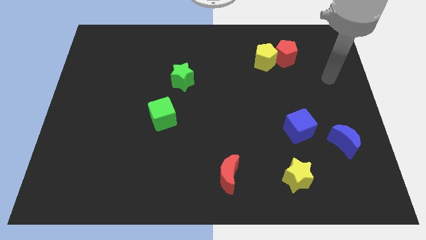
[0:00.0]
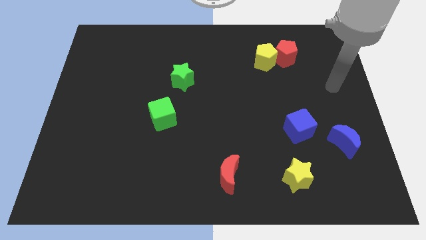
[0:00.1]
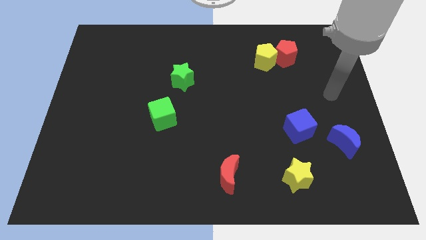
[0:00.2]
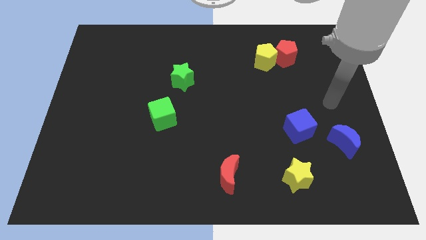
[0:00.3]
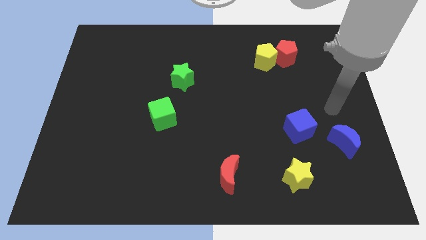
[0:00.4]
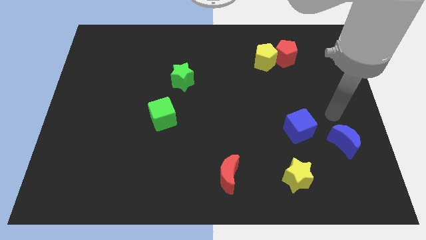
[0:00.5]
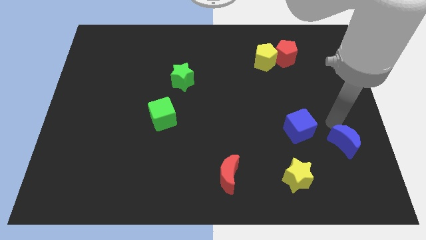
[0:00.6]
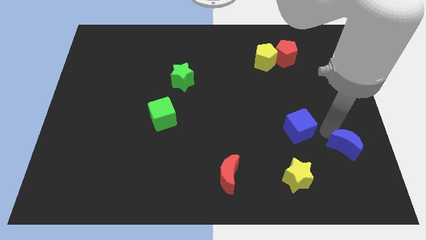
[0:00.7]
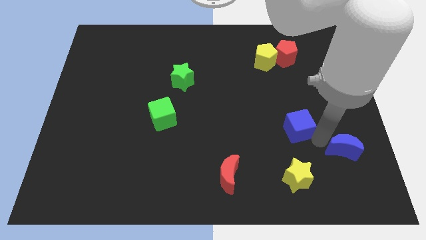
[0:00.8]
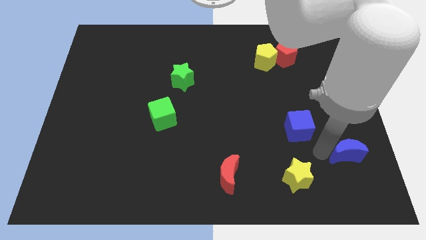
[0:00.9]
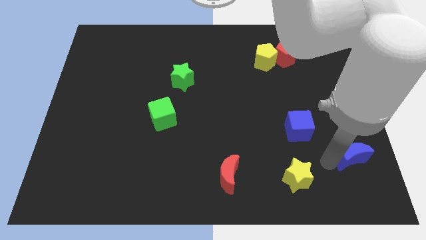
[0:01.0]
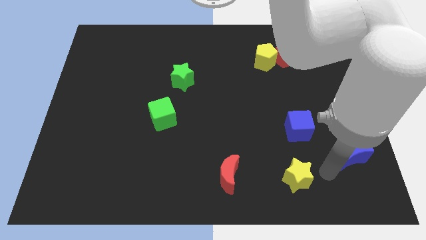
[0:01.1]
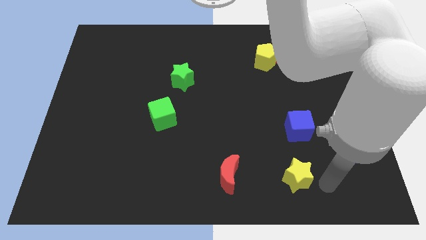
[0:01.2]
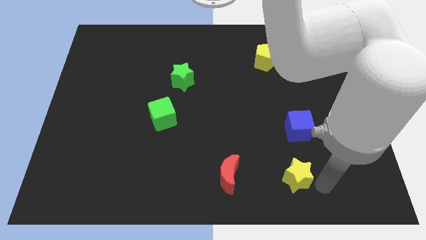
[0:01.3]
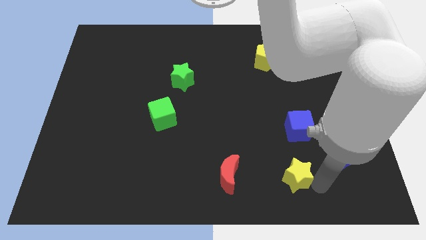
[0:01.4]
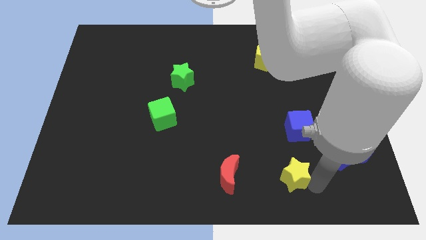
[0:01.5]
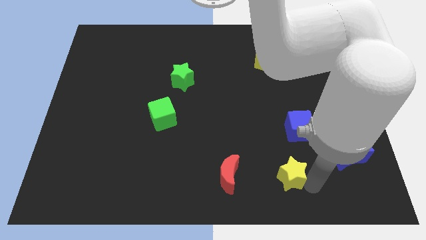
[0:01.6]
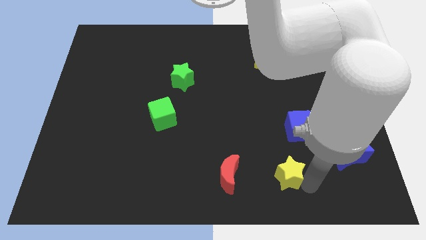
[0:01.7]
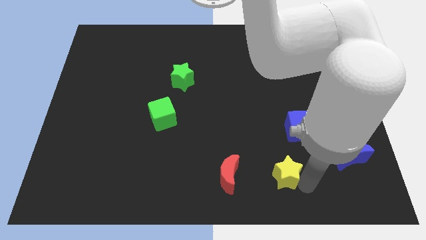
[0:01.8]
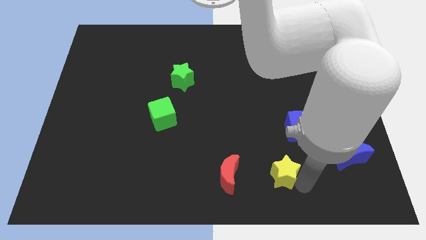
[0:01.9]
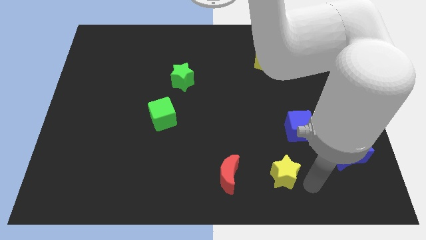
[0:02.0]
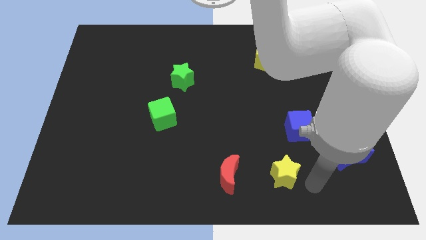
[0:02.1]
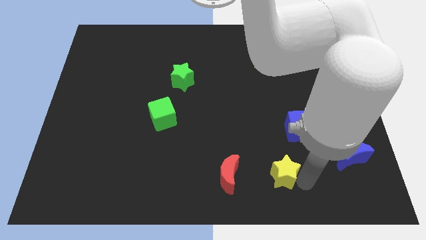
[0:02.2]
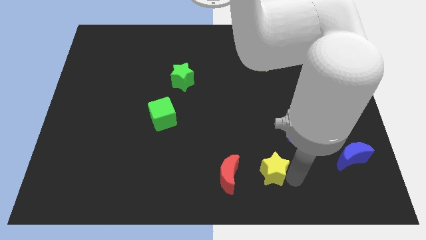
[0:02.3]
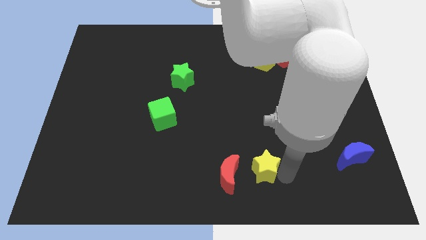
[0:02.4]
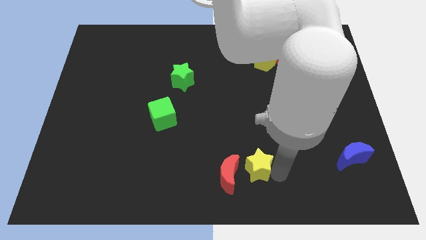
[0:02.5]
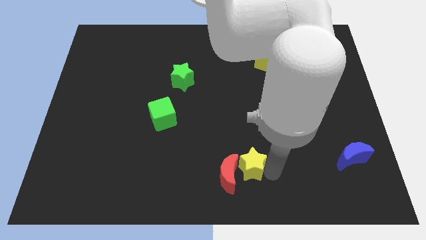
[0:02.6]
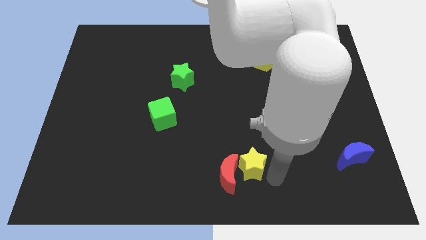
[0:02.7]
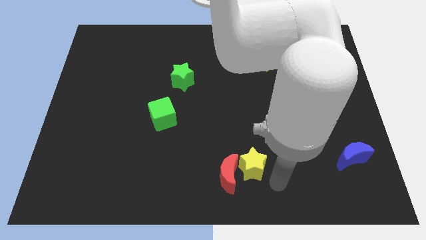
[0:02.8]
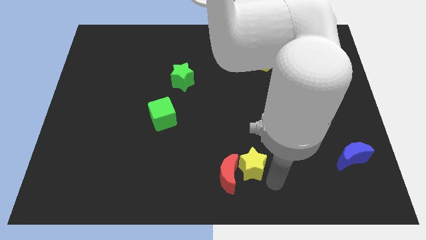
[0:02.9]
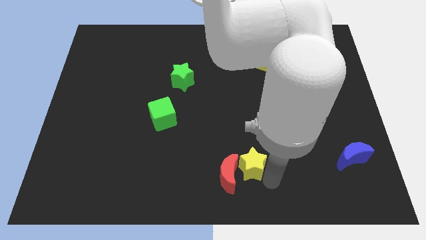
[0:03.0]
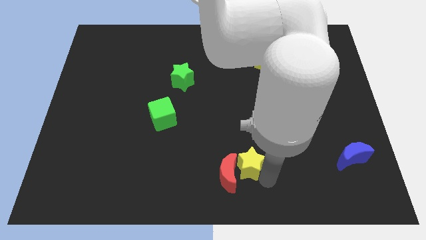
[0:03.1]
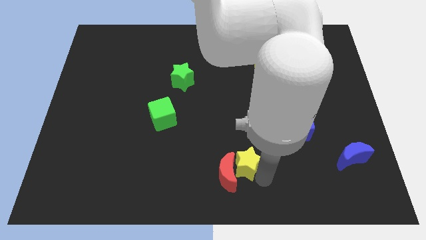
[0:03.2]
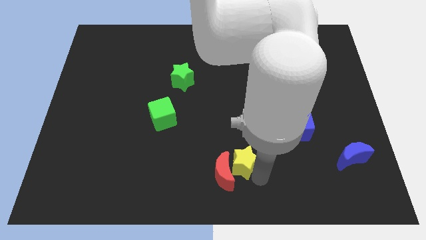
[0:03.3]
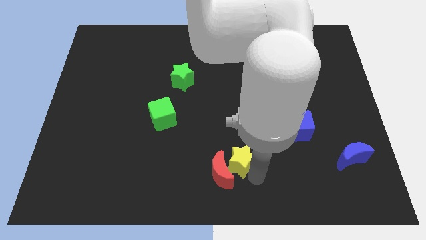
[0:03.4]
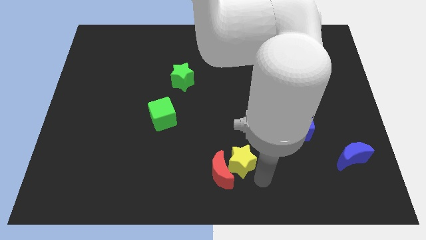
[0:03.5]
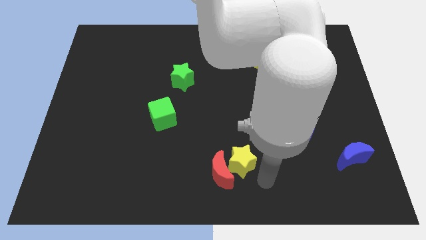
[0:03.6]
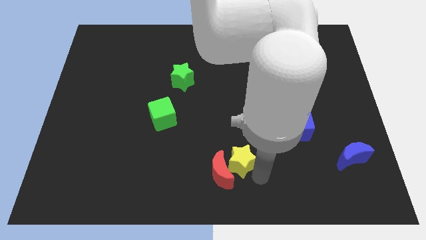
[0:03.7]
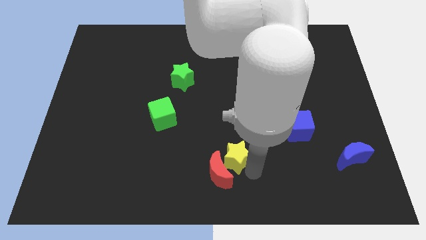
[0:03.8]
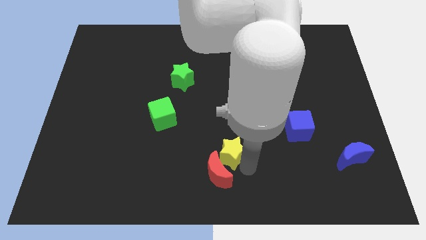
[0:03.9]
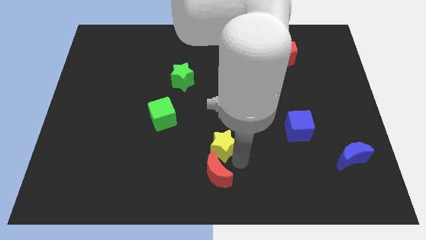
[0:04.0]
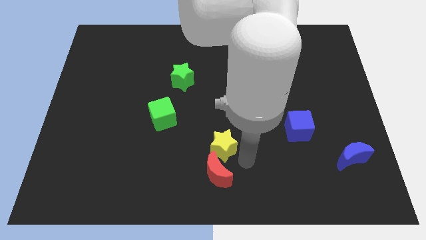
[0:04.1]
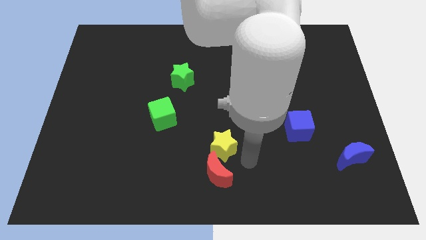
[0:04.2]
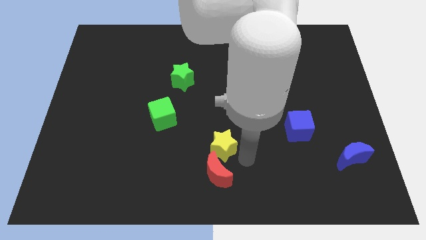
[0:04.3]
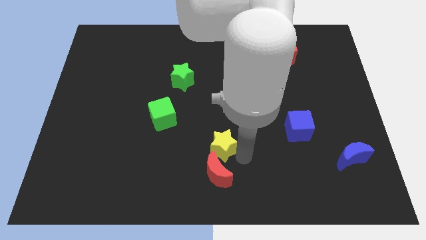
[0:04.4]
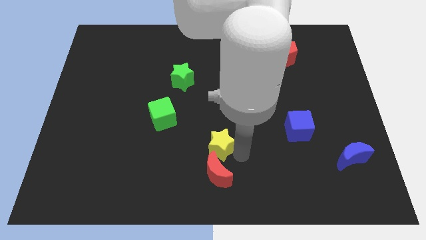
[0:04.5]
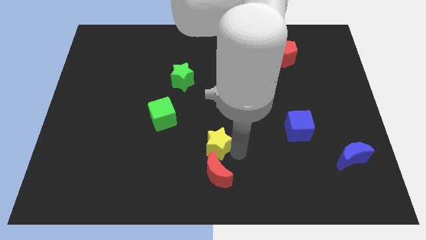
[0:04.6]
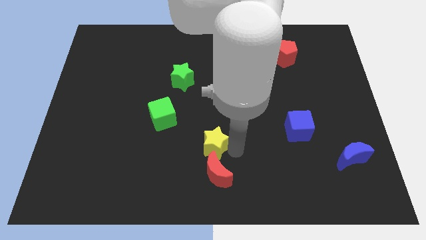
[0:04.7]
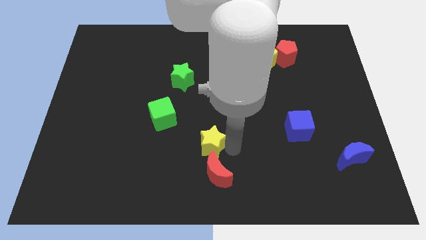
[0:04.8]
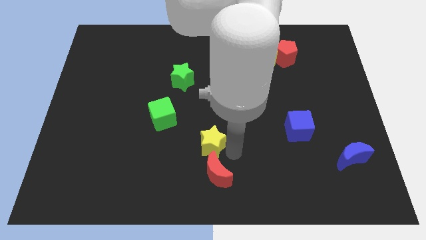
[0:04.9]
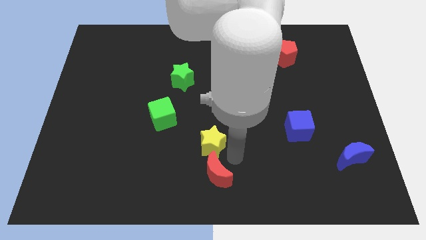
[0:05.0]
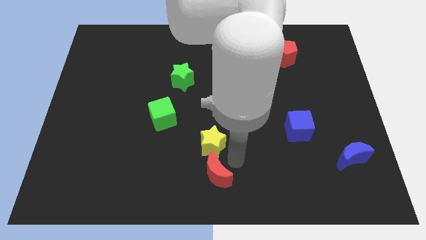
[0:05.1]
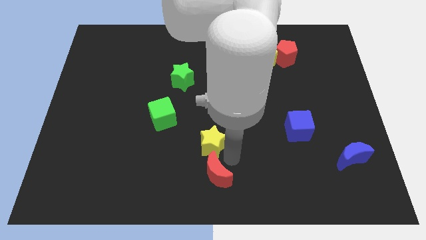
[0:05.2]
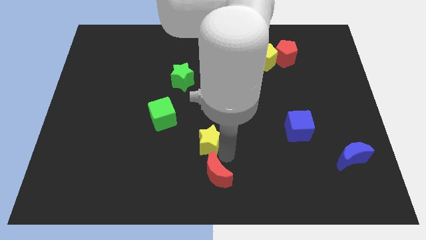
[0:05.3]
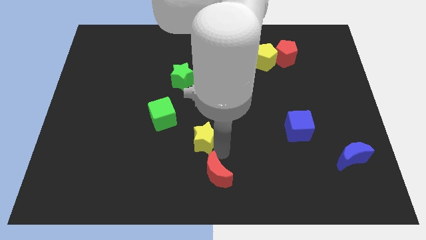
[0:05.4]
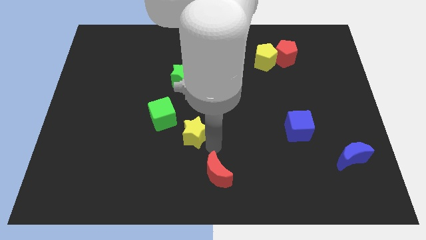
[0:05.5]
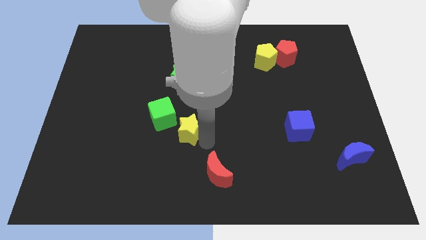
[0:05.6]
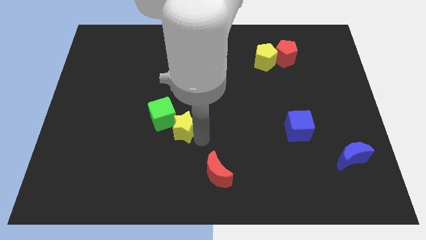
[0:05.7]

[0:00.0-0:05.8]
move the yellow star towards the green cube

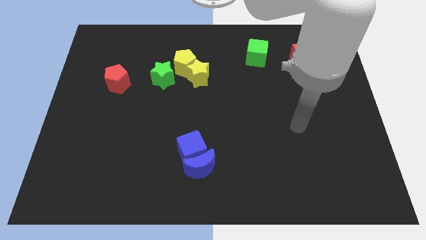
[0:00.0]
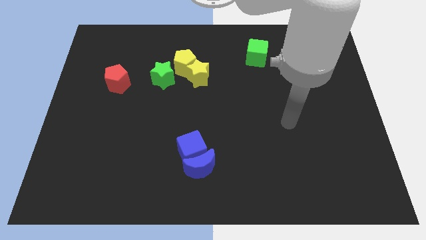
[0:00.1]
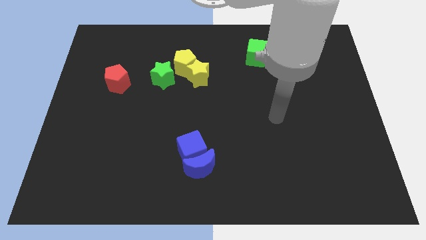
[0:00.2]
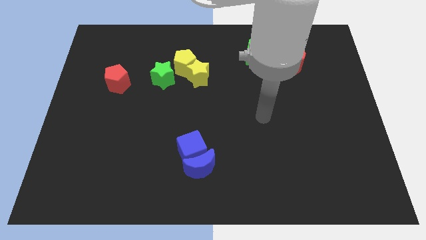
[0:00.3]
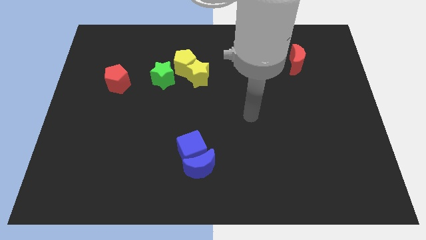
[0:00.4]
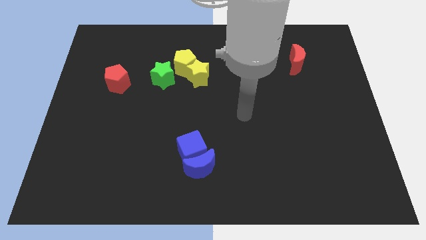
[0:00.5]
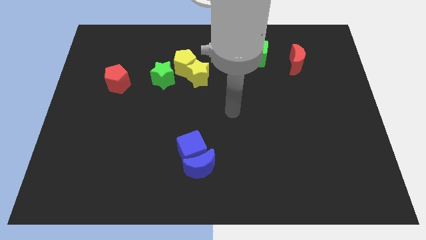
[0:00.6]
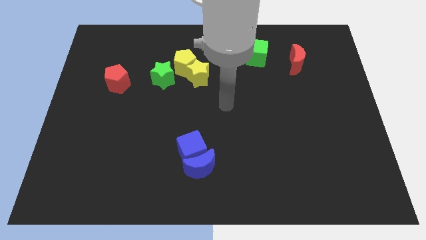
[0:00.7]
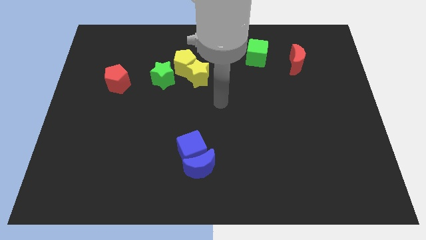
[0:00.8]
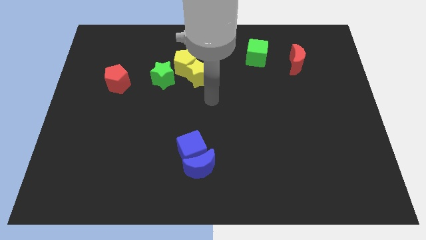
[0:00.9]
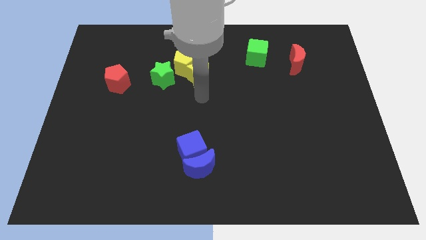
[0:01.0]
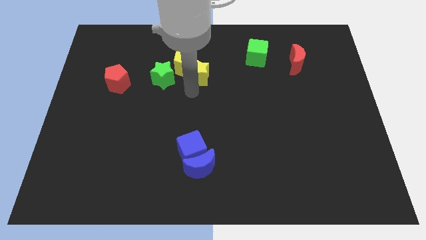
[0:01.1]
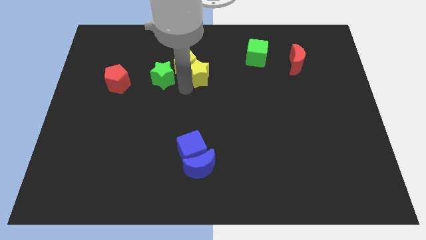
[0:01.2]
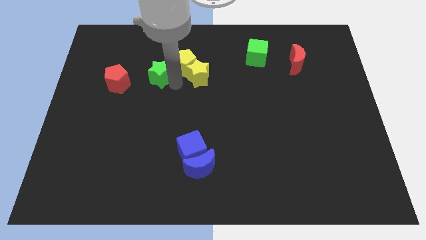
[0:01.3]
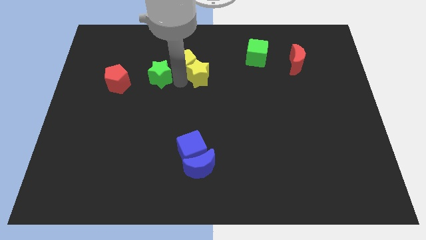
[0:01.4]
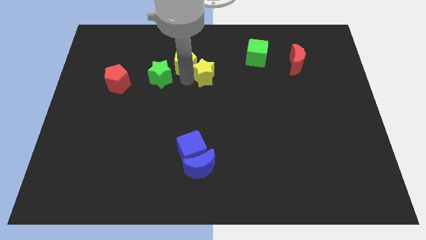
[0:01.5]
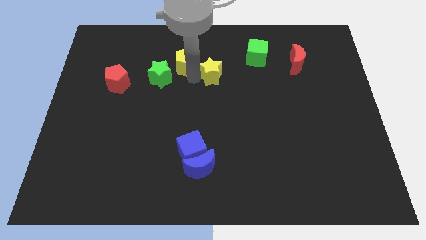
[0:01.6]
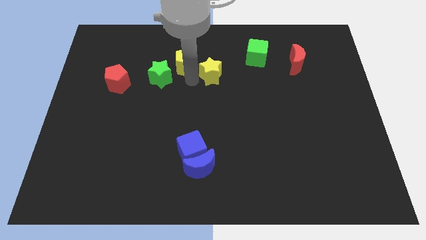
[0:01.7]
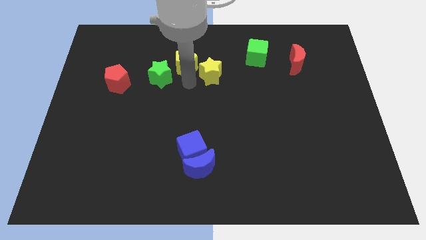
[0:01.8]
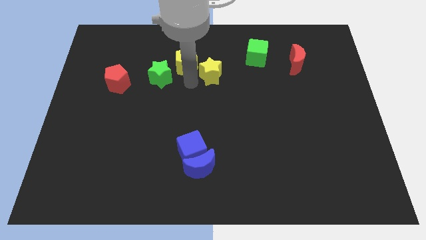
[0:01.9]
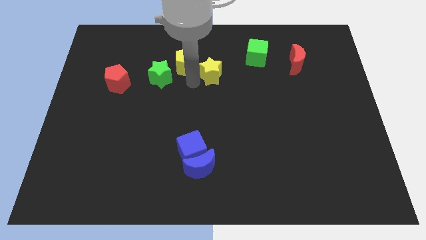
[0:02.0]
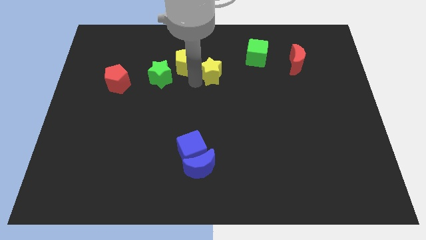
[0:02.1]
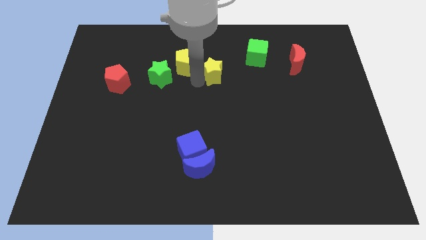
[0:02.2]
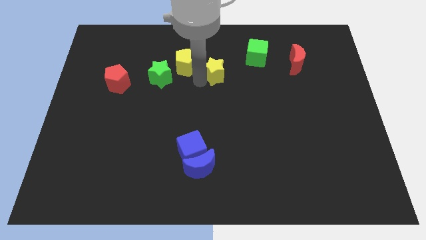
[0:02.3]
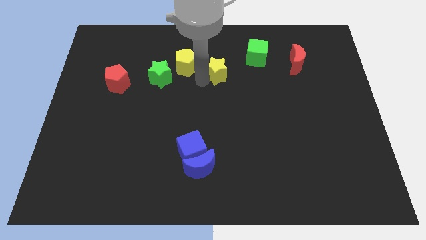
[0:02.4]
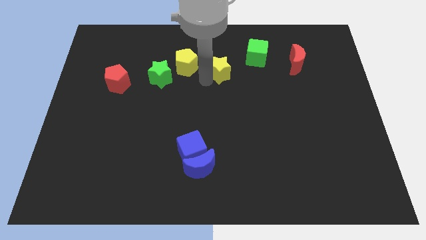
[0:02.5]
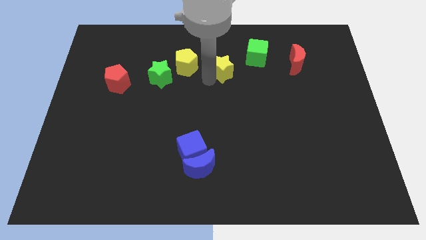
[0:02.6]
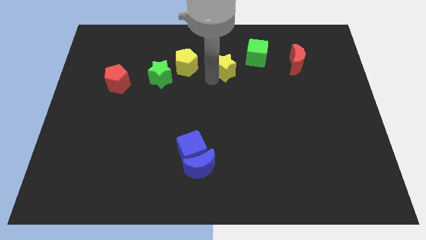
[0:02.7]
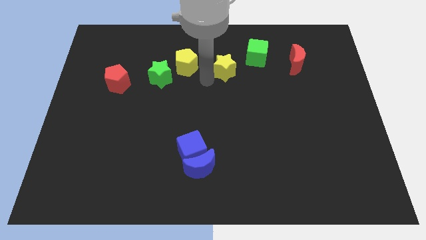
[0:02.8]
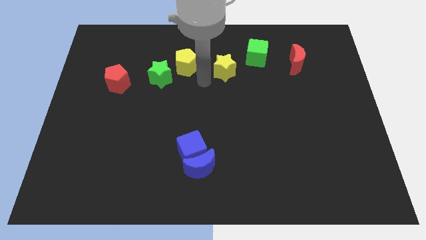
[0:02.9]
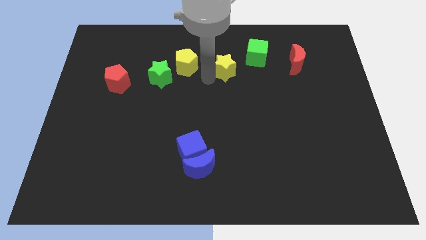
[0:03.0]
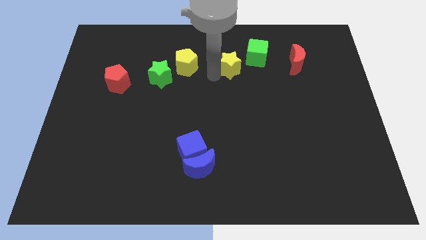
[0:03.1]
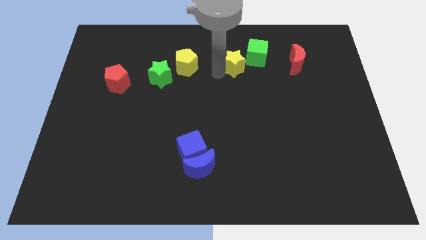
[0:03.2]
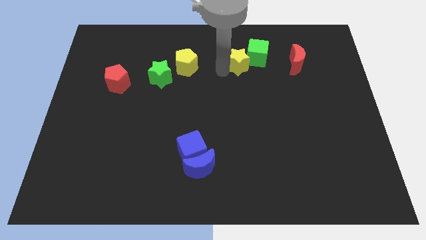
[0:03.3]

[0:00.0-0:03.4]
put the yellow star towards the green cube
